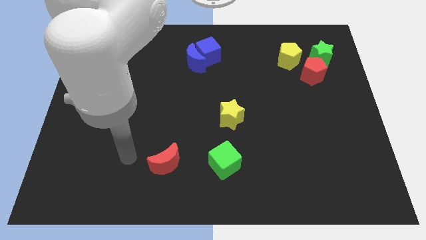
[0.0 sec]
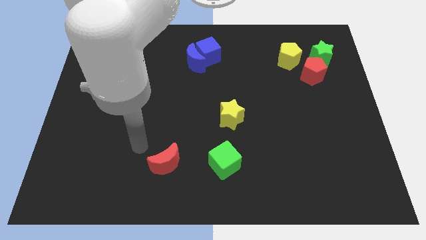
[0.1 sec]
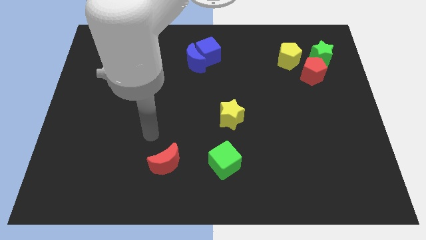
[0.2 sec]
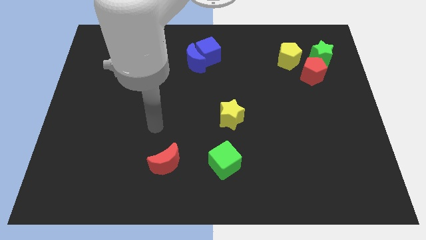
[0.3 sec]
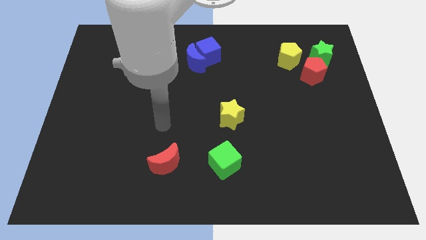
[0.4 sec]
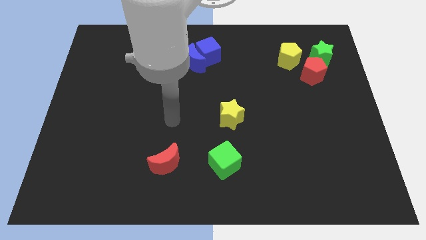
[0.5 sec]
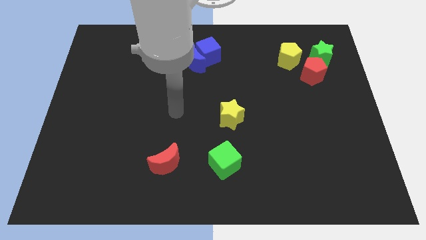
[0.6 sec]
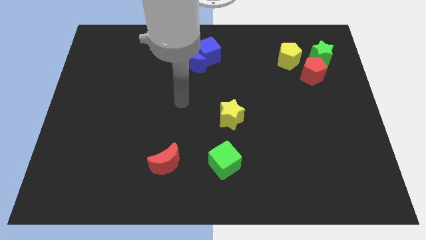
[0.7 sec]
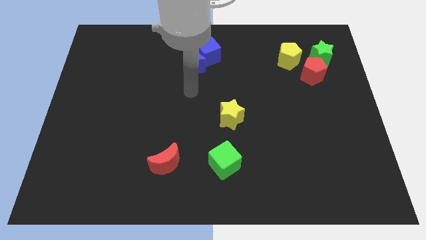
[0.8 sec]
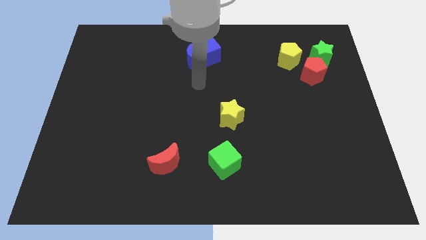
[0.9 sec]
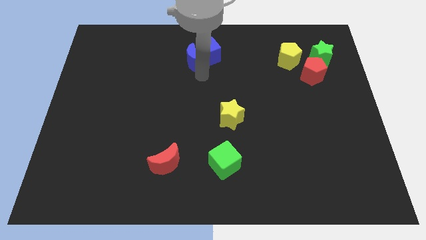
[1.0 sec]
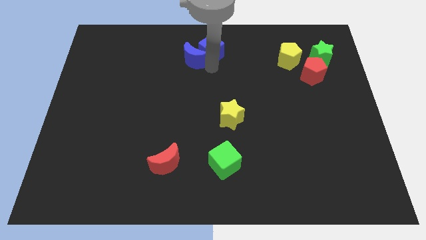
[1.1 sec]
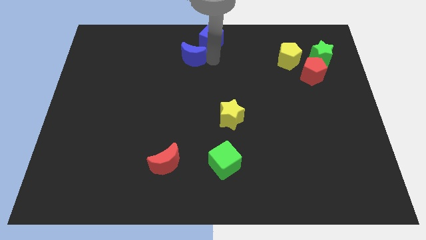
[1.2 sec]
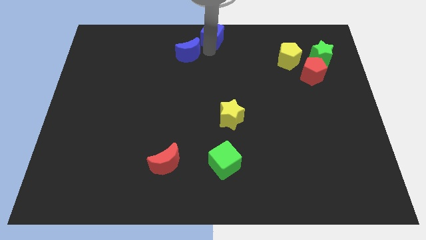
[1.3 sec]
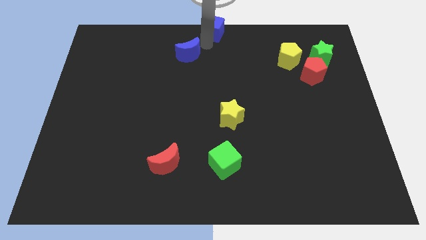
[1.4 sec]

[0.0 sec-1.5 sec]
move the blue moon away from the blue cube

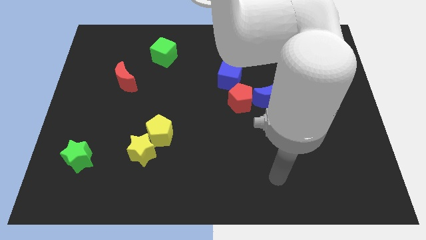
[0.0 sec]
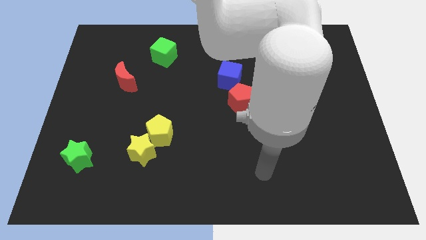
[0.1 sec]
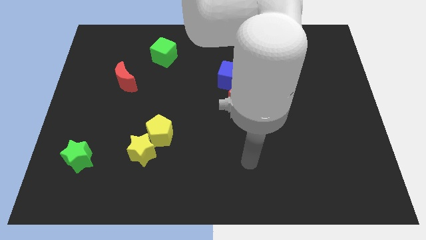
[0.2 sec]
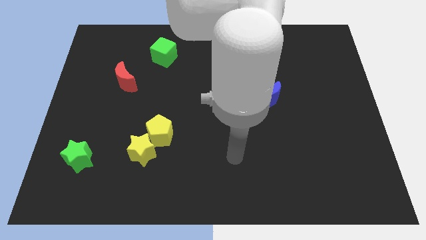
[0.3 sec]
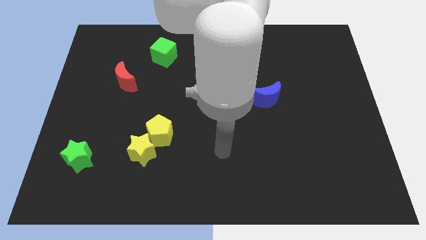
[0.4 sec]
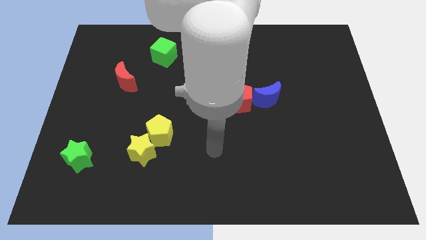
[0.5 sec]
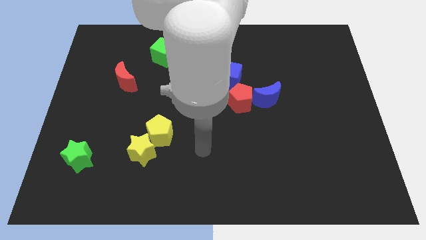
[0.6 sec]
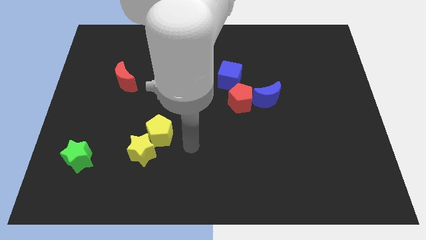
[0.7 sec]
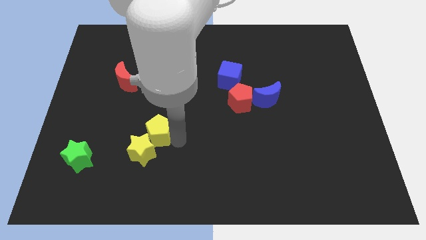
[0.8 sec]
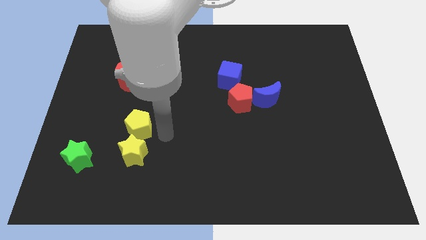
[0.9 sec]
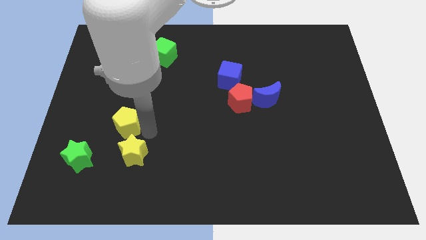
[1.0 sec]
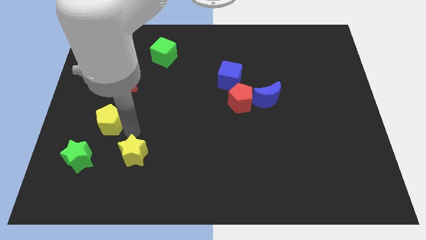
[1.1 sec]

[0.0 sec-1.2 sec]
pull the yellow star apart from the yellow pentagon

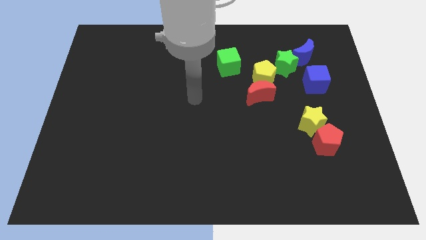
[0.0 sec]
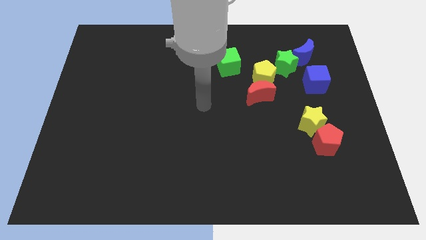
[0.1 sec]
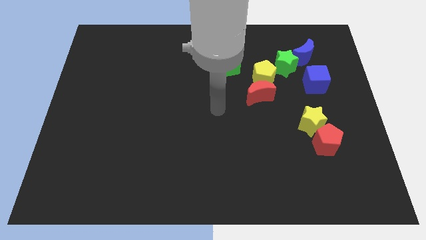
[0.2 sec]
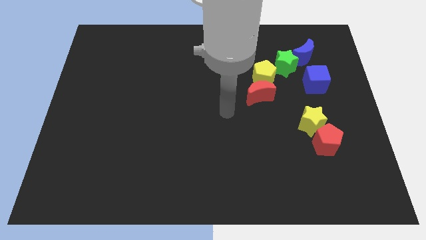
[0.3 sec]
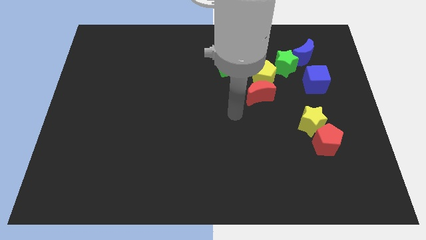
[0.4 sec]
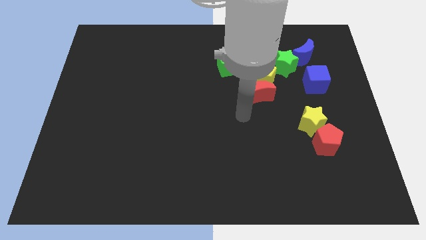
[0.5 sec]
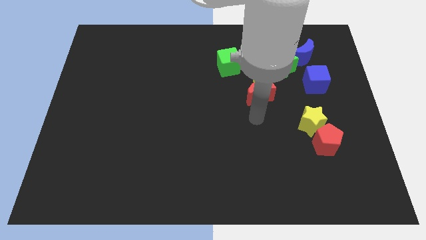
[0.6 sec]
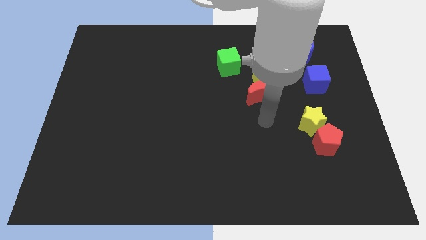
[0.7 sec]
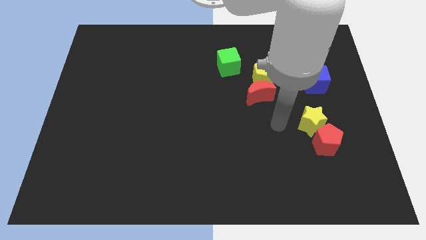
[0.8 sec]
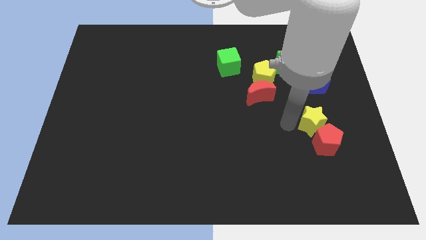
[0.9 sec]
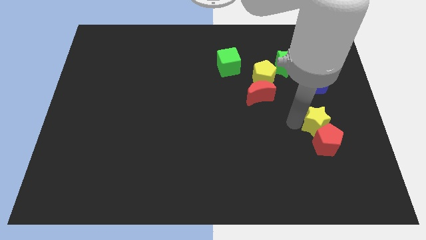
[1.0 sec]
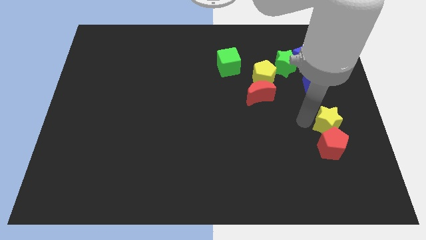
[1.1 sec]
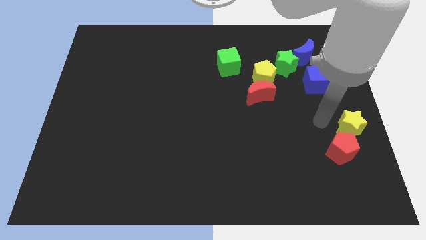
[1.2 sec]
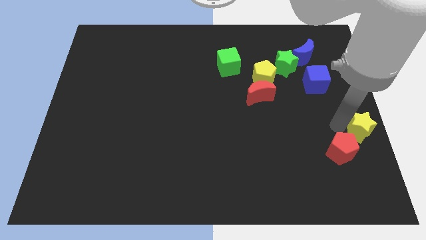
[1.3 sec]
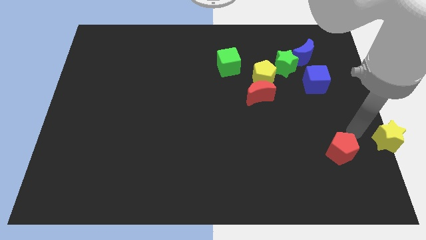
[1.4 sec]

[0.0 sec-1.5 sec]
move the red pentagon away from the yellow star

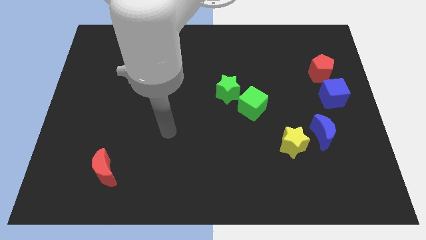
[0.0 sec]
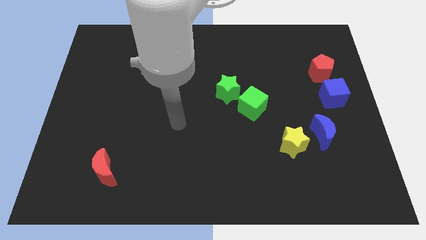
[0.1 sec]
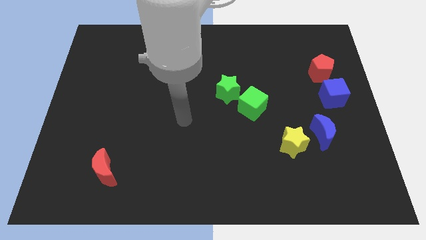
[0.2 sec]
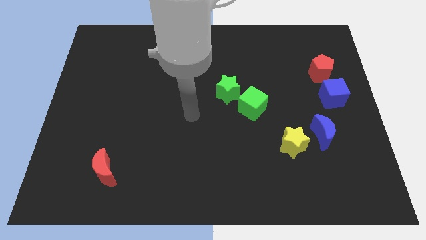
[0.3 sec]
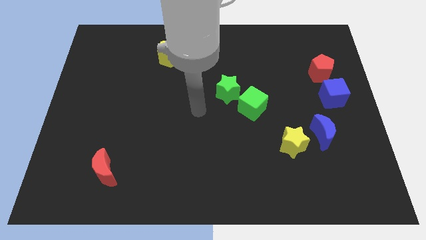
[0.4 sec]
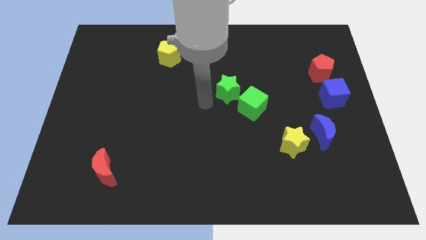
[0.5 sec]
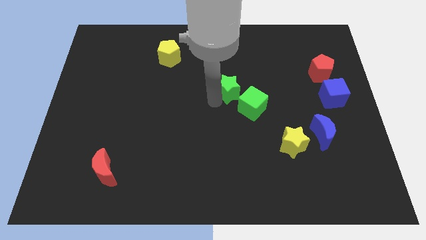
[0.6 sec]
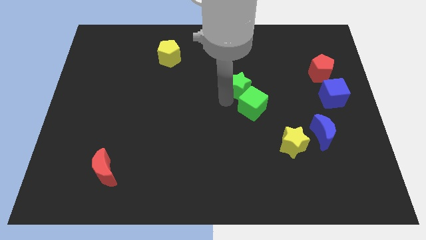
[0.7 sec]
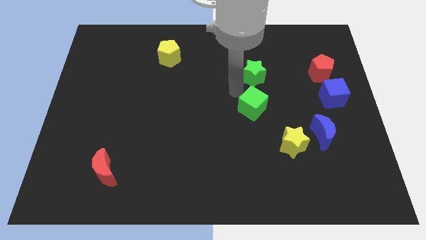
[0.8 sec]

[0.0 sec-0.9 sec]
move the green cube away from the green star

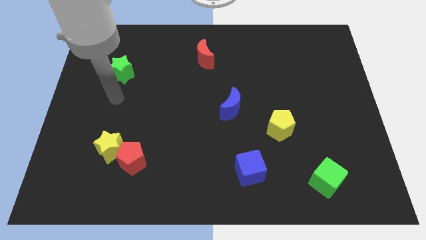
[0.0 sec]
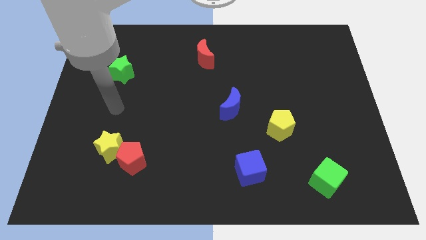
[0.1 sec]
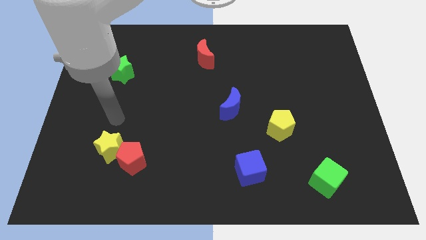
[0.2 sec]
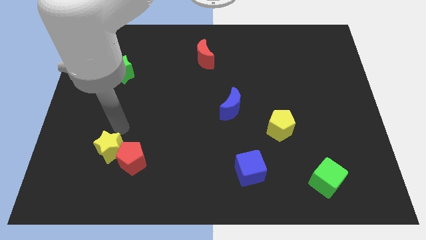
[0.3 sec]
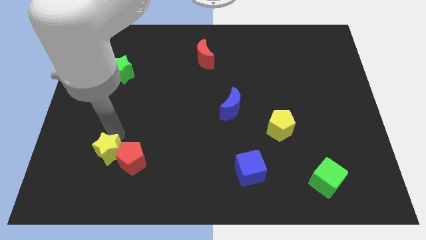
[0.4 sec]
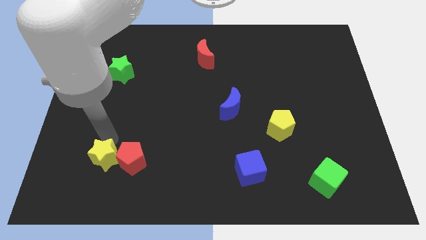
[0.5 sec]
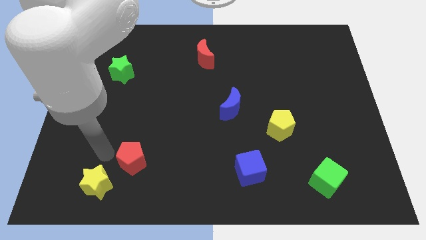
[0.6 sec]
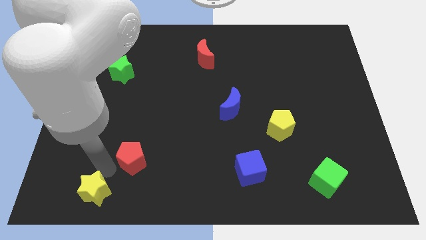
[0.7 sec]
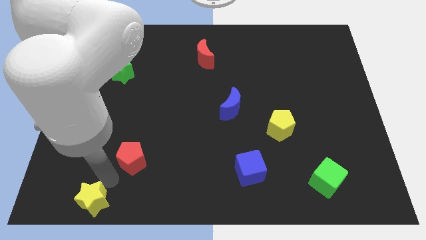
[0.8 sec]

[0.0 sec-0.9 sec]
pull the red pentagon apart from the yellow star

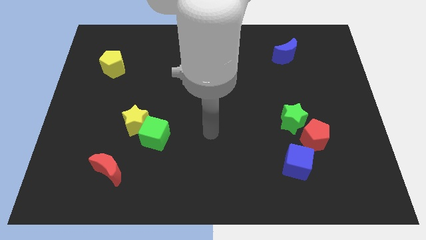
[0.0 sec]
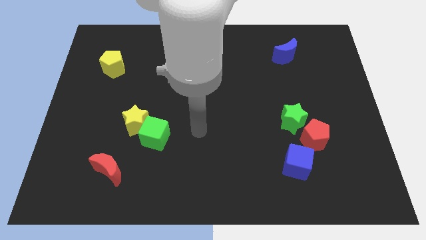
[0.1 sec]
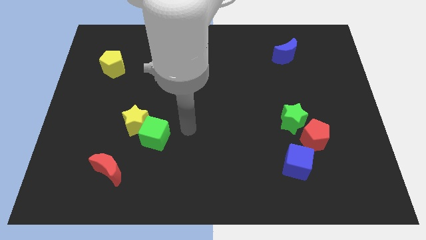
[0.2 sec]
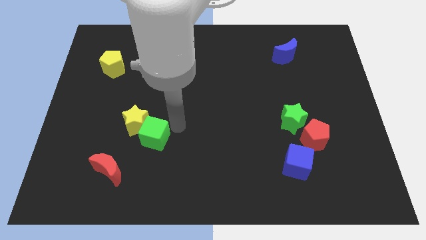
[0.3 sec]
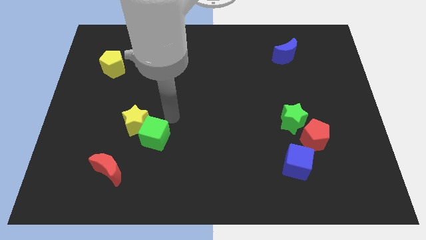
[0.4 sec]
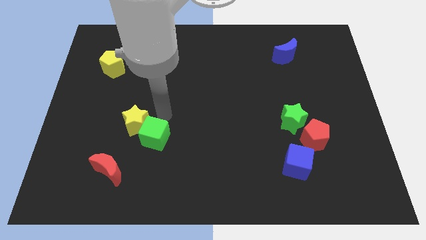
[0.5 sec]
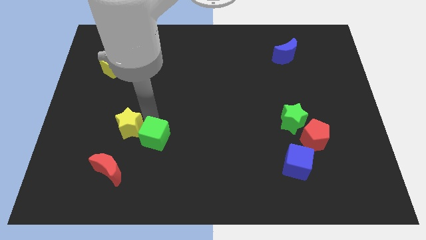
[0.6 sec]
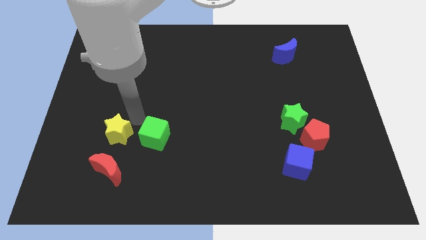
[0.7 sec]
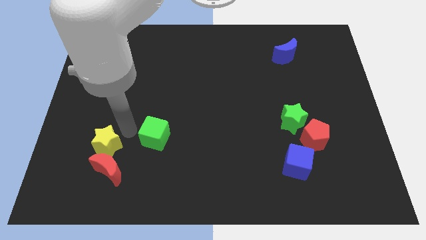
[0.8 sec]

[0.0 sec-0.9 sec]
move the green cube away from the yellow star

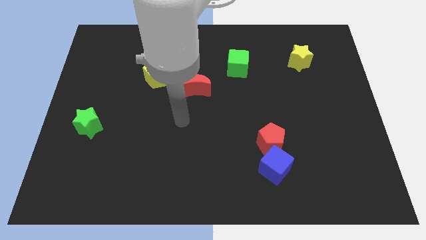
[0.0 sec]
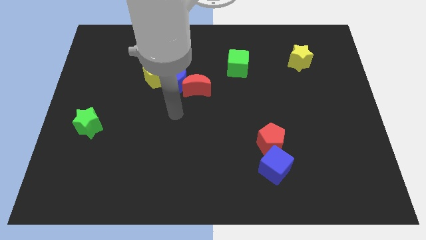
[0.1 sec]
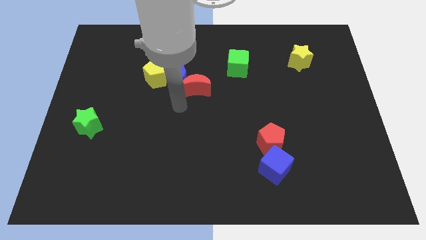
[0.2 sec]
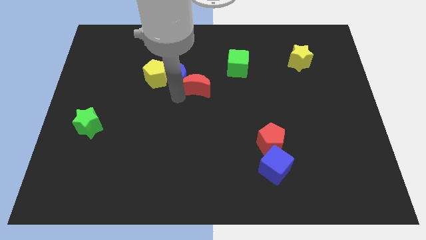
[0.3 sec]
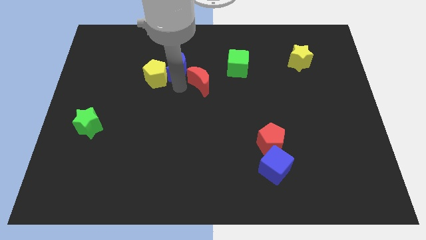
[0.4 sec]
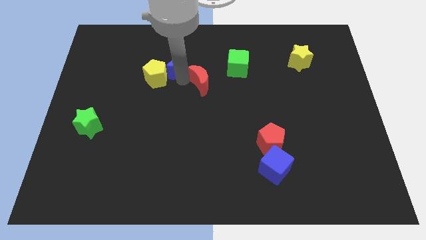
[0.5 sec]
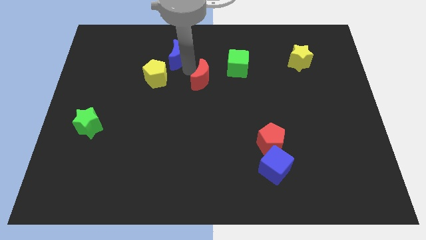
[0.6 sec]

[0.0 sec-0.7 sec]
separate the red moon from the blue moon

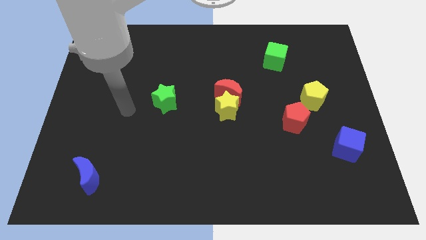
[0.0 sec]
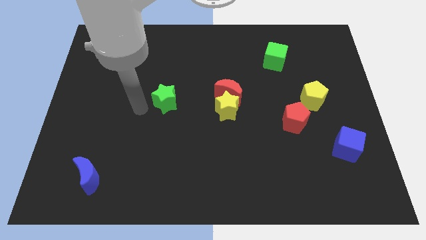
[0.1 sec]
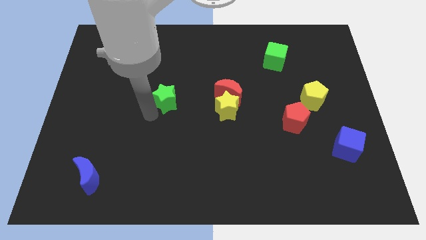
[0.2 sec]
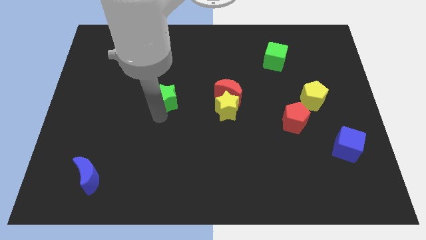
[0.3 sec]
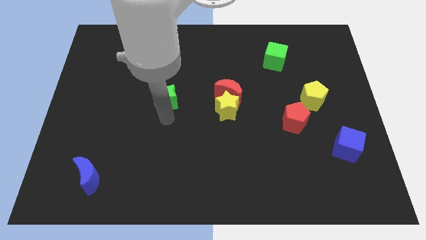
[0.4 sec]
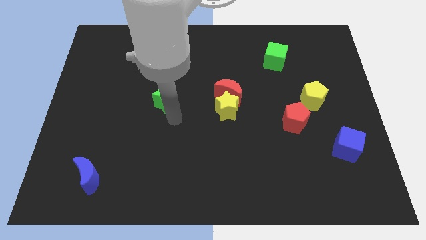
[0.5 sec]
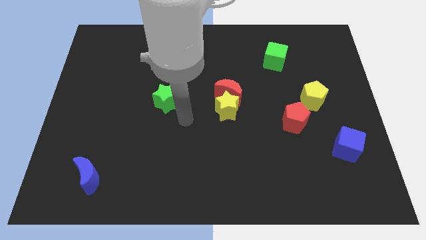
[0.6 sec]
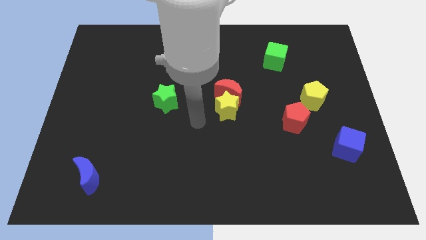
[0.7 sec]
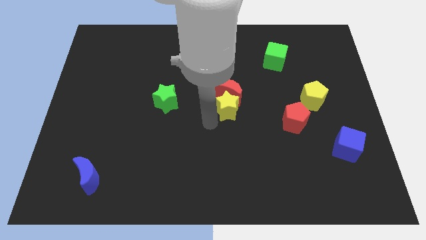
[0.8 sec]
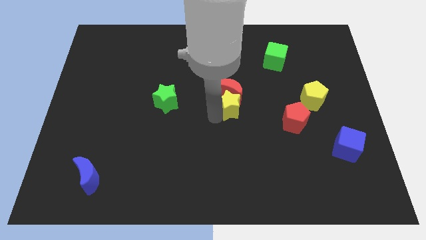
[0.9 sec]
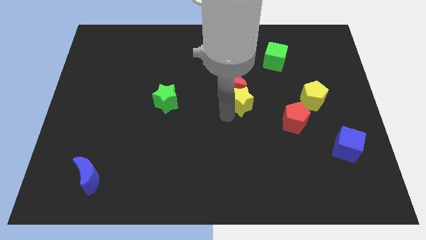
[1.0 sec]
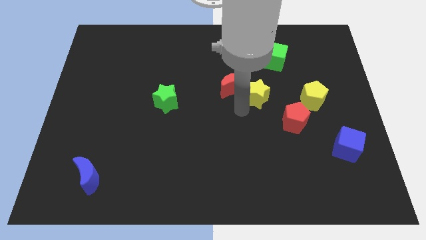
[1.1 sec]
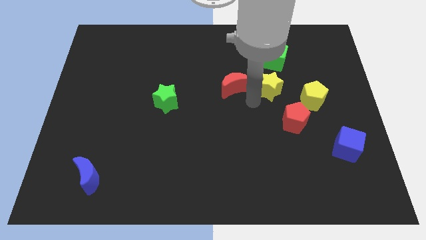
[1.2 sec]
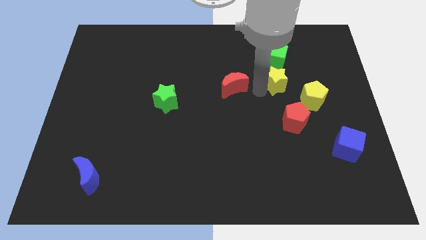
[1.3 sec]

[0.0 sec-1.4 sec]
pull the red moon apart from the yellow star

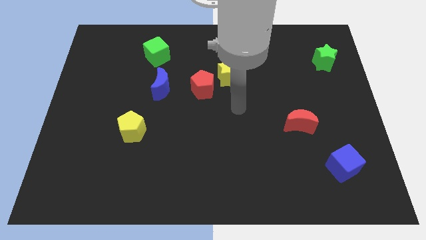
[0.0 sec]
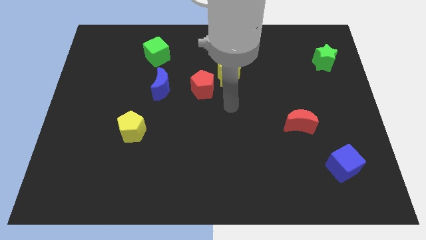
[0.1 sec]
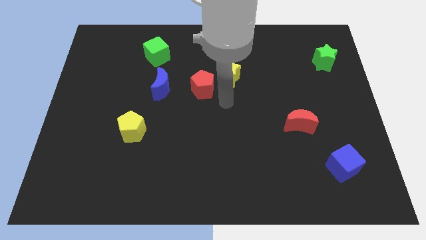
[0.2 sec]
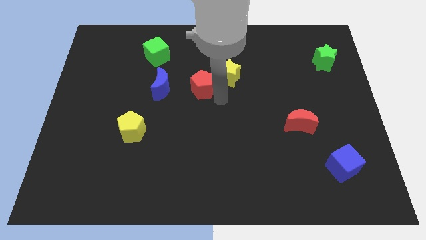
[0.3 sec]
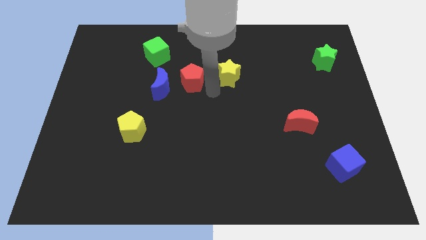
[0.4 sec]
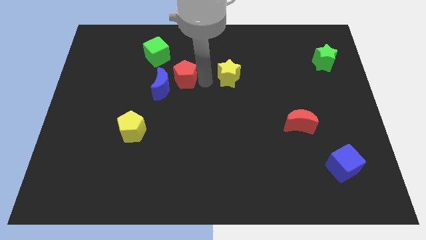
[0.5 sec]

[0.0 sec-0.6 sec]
pull the yellow star apart from the red pentagon
